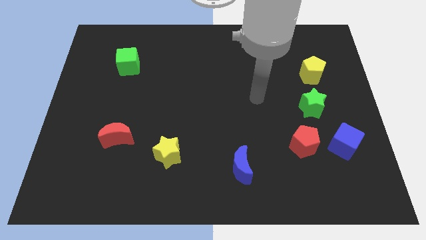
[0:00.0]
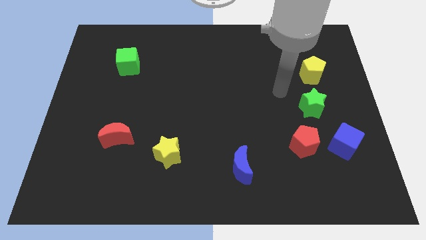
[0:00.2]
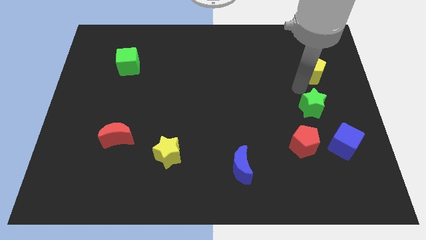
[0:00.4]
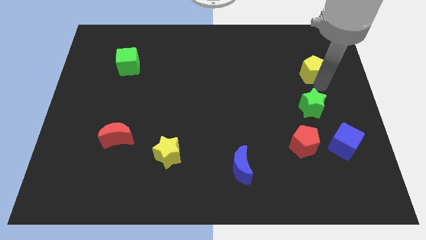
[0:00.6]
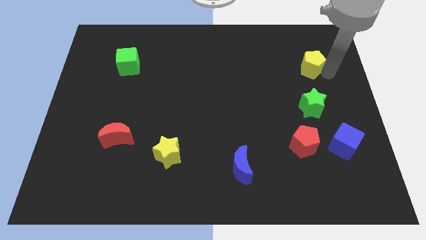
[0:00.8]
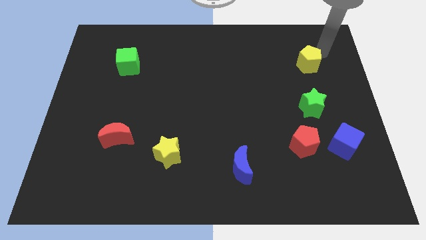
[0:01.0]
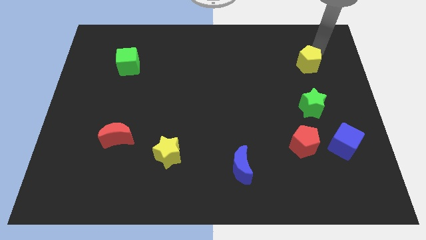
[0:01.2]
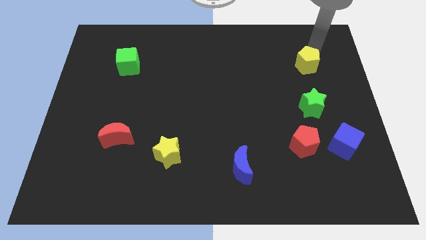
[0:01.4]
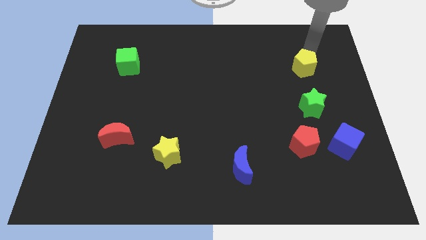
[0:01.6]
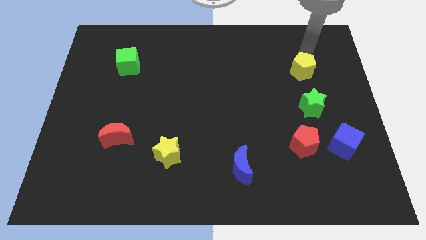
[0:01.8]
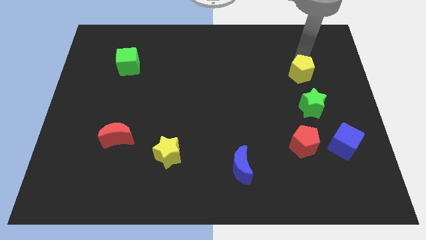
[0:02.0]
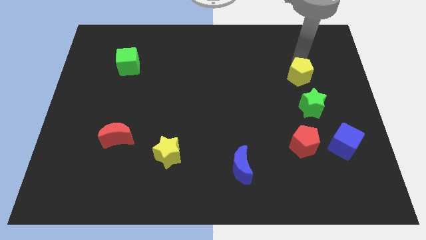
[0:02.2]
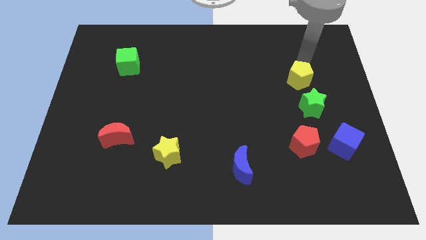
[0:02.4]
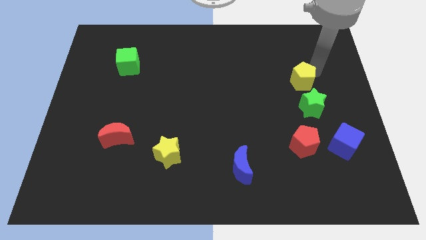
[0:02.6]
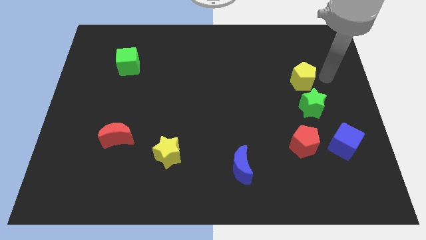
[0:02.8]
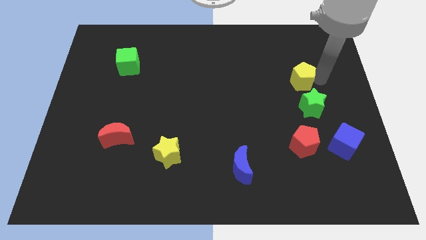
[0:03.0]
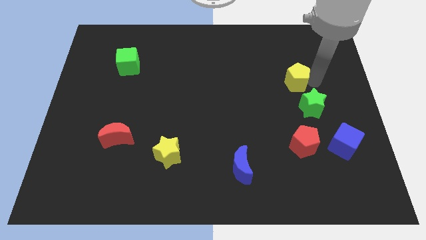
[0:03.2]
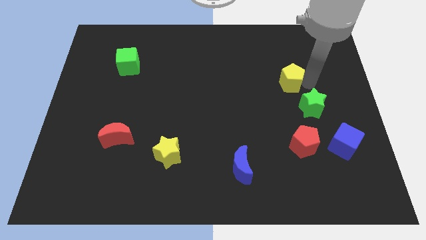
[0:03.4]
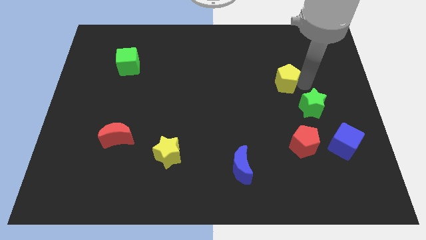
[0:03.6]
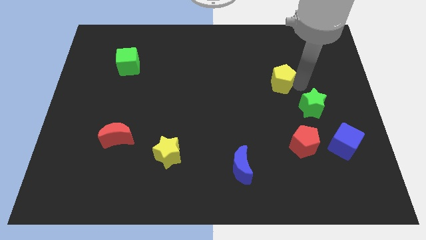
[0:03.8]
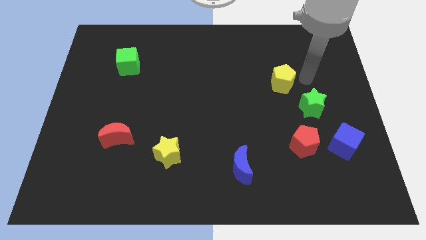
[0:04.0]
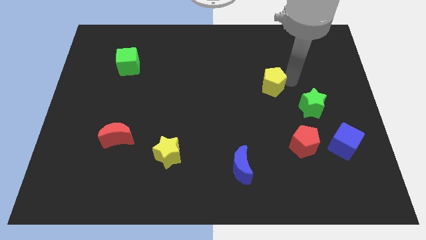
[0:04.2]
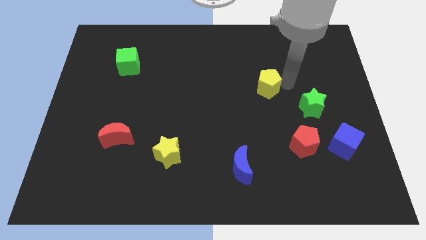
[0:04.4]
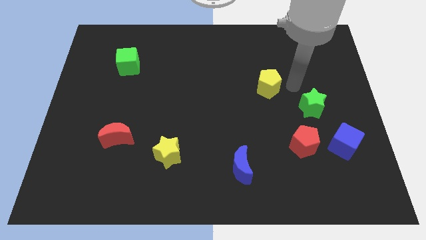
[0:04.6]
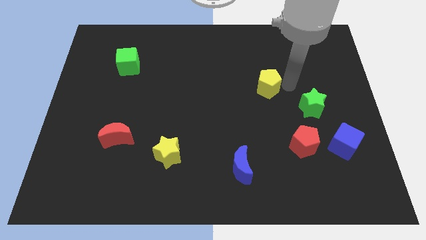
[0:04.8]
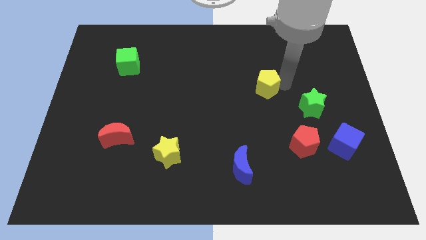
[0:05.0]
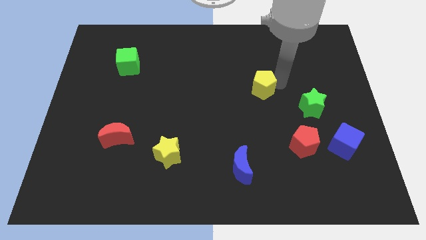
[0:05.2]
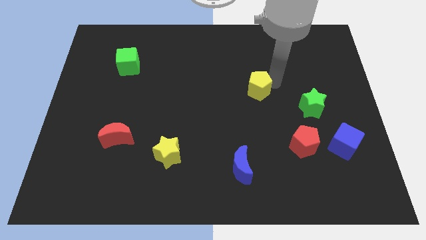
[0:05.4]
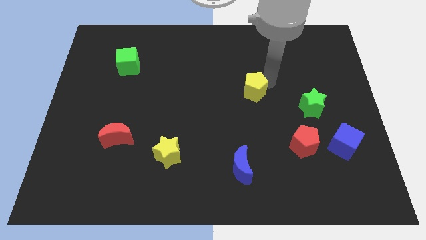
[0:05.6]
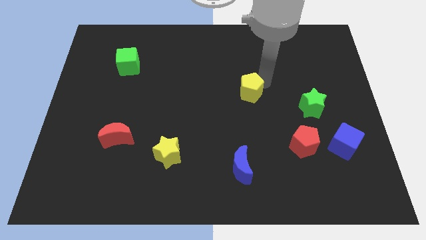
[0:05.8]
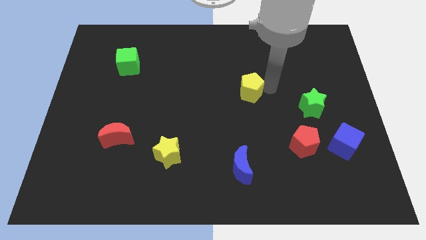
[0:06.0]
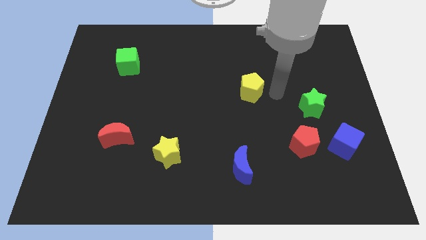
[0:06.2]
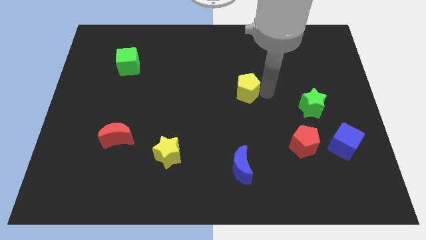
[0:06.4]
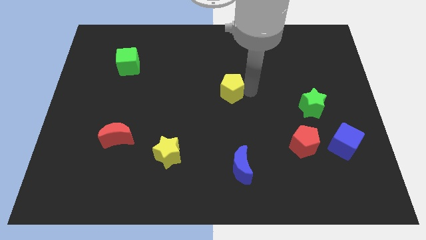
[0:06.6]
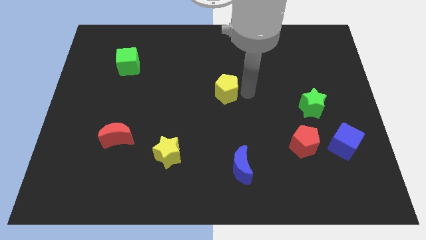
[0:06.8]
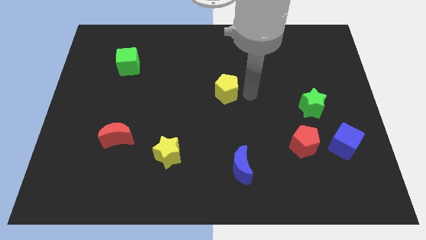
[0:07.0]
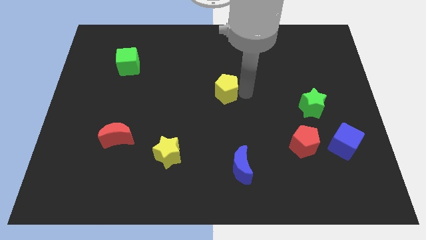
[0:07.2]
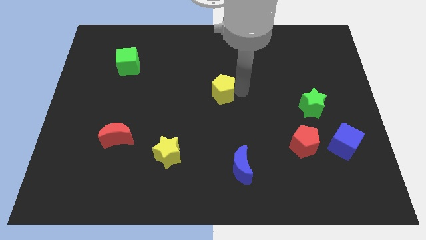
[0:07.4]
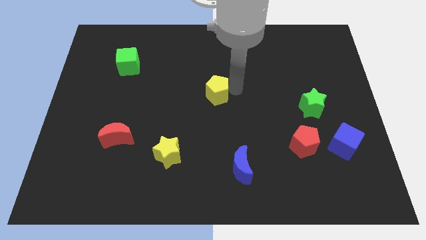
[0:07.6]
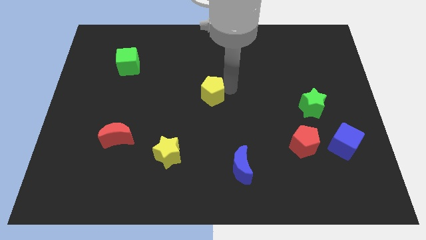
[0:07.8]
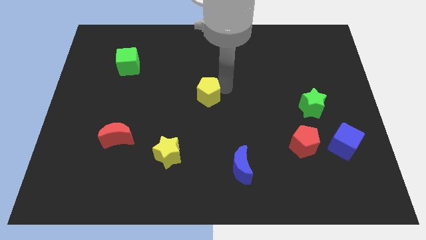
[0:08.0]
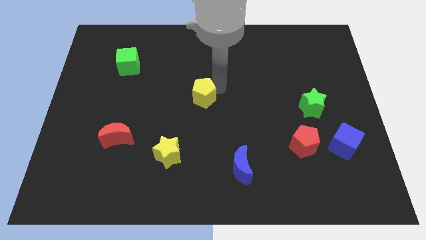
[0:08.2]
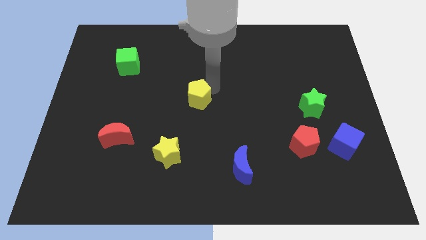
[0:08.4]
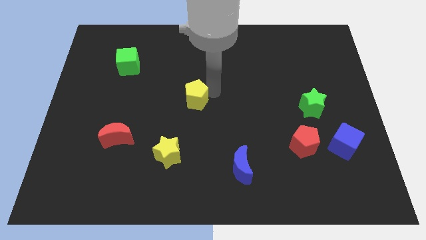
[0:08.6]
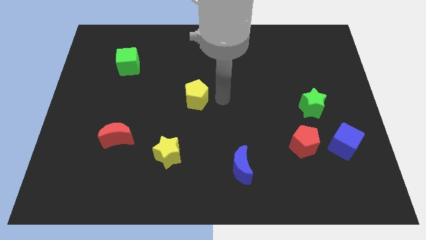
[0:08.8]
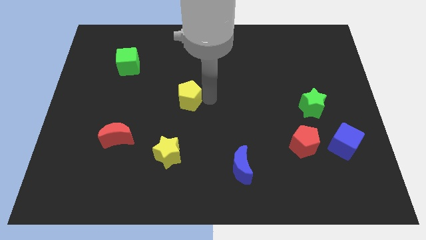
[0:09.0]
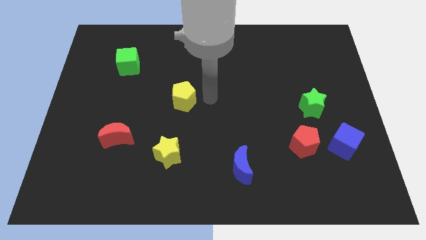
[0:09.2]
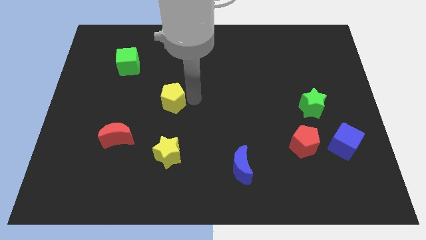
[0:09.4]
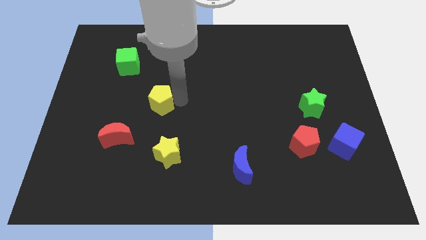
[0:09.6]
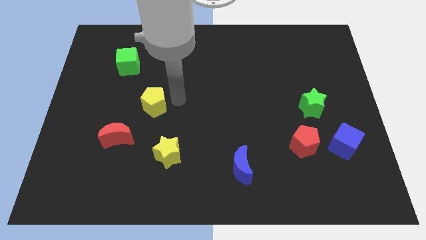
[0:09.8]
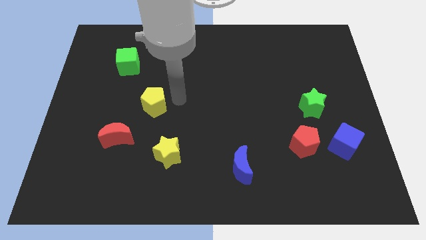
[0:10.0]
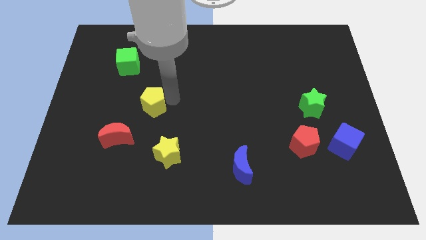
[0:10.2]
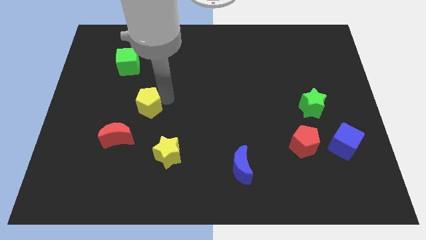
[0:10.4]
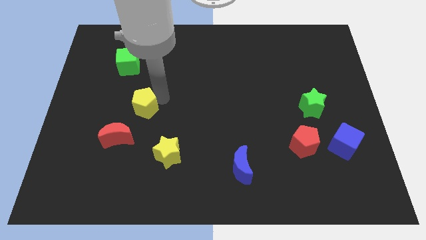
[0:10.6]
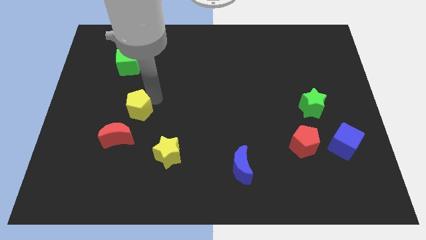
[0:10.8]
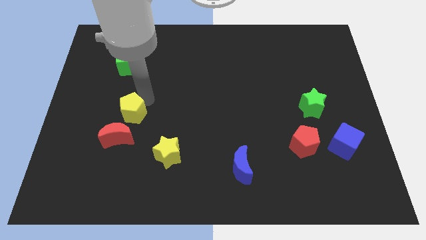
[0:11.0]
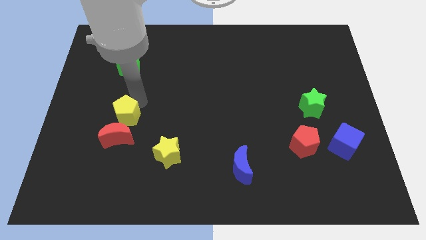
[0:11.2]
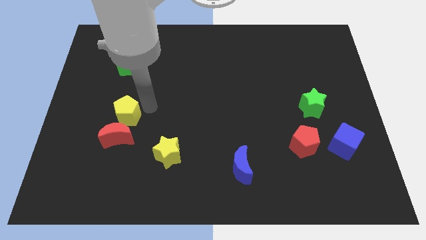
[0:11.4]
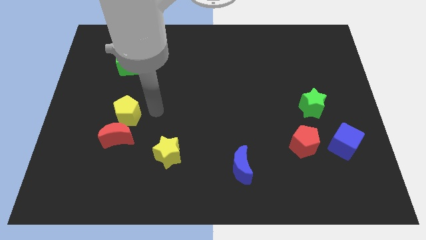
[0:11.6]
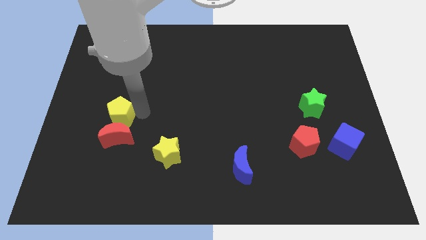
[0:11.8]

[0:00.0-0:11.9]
move the yellow pentagon to the top left of the red moon

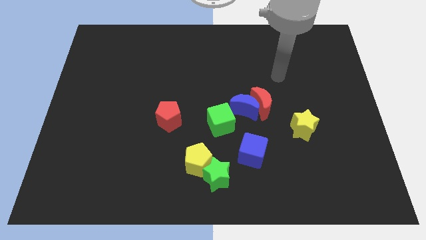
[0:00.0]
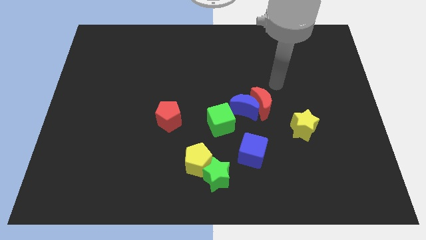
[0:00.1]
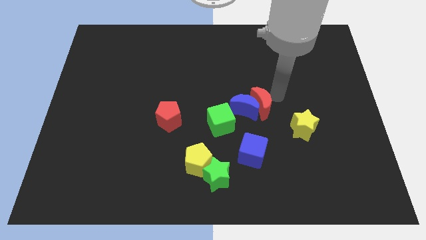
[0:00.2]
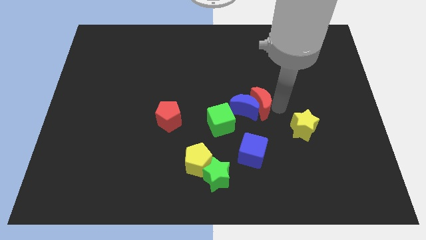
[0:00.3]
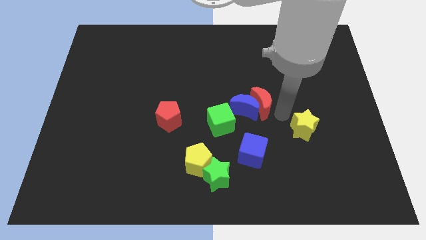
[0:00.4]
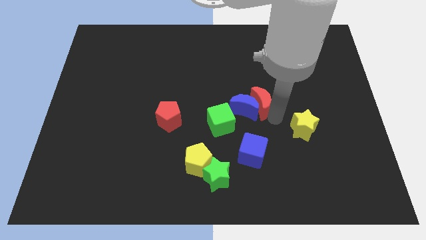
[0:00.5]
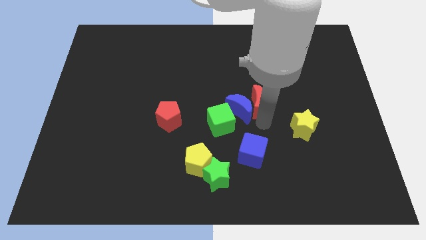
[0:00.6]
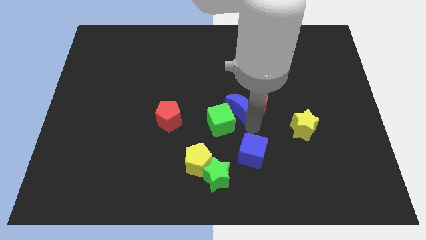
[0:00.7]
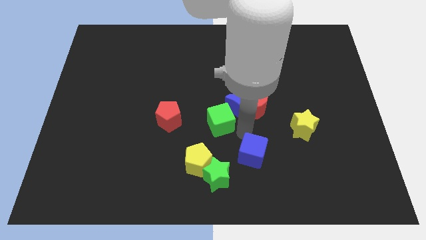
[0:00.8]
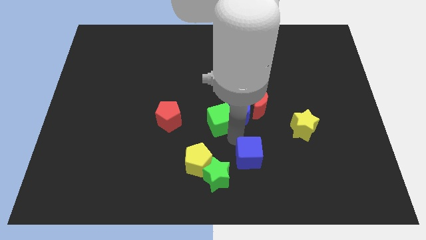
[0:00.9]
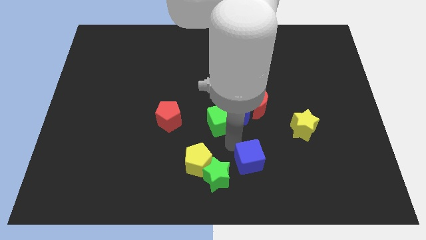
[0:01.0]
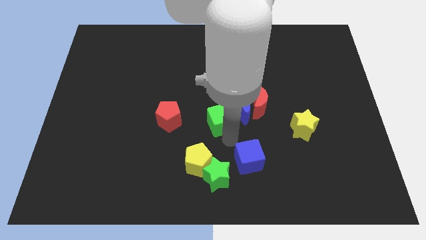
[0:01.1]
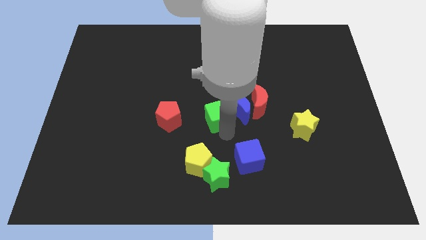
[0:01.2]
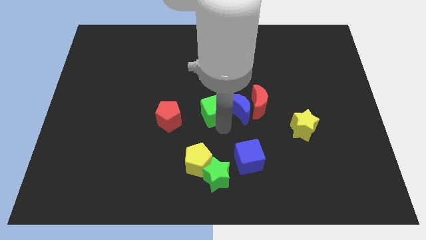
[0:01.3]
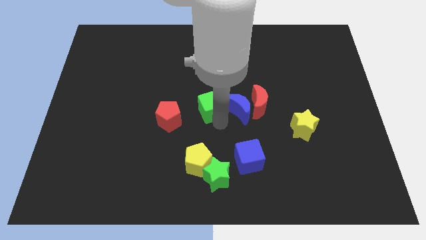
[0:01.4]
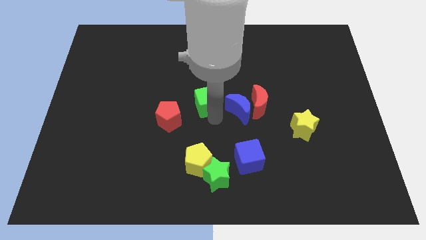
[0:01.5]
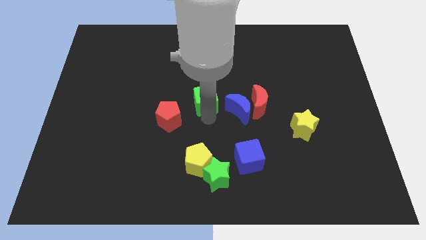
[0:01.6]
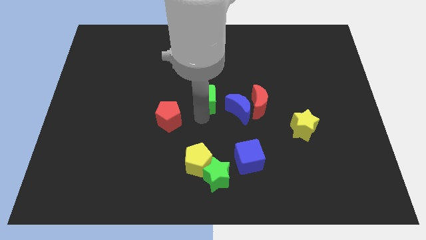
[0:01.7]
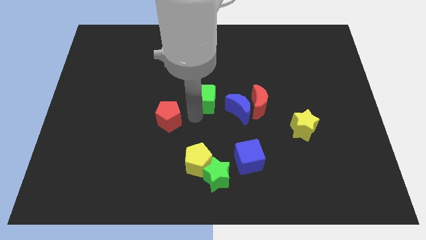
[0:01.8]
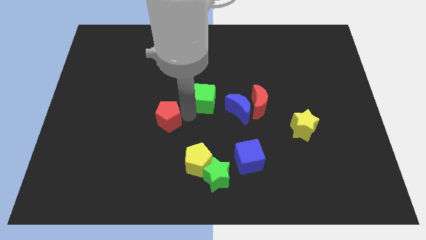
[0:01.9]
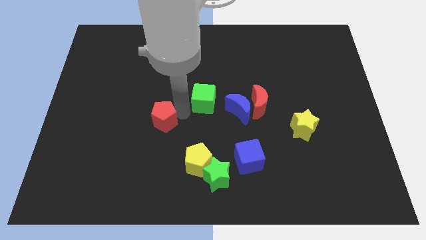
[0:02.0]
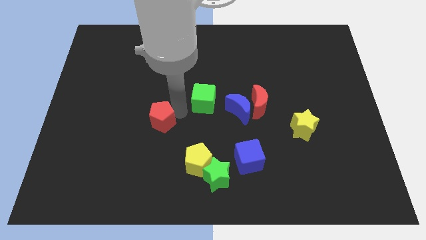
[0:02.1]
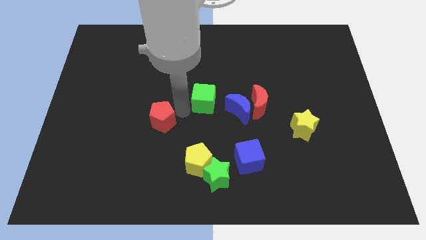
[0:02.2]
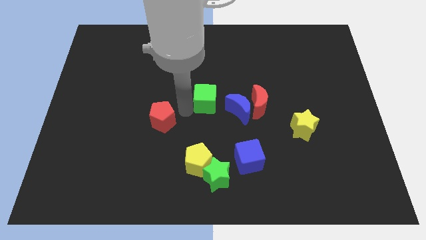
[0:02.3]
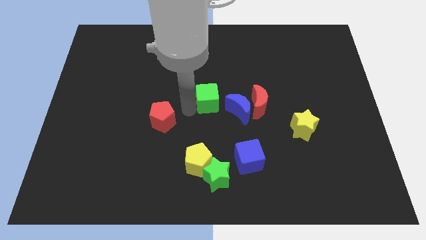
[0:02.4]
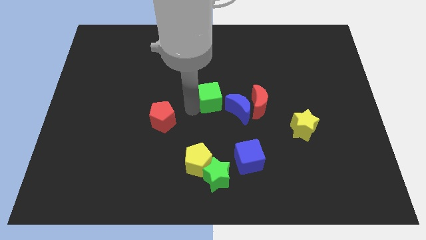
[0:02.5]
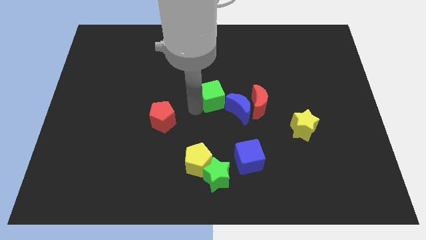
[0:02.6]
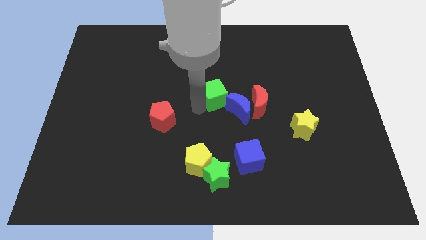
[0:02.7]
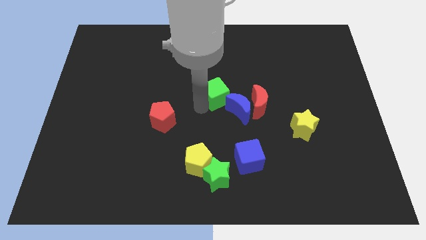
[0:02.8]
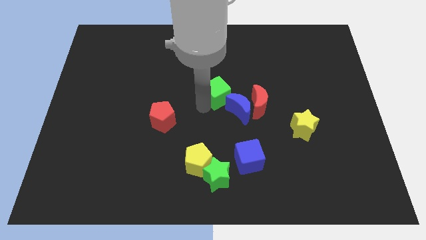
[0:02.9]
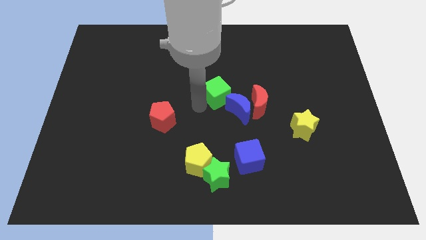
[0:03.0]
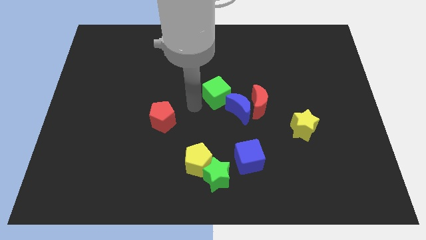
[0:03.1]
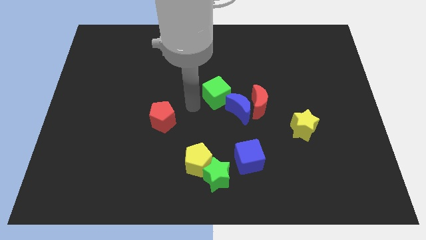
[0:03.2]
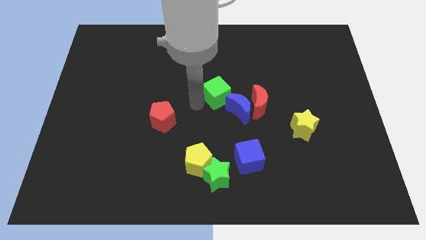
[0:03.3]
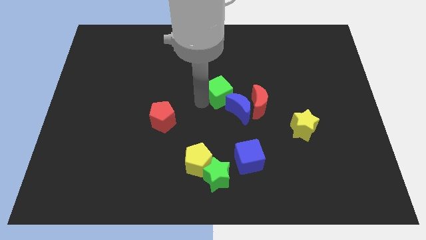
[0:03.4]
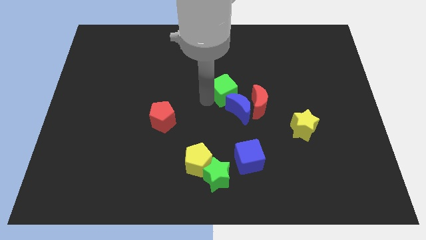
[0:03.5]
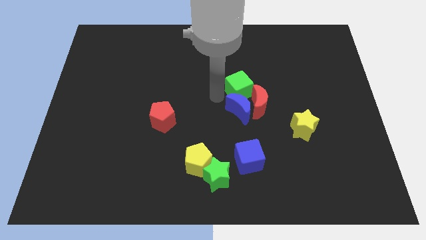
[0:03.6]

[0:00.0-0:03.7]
move the green cube to the top side of the red moon
